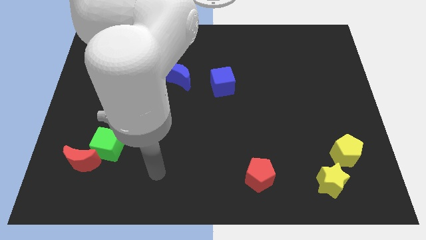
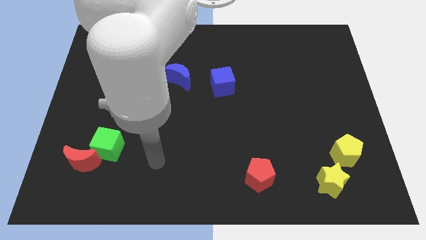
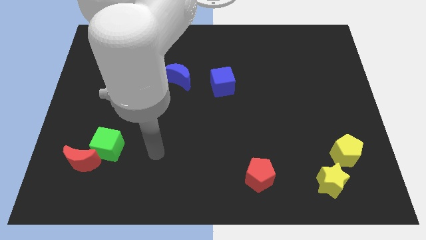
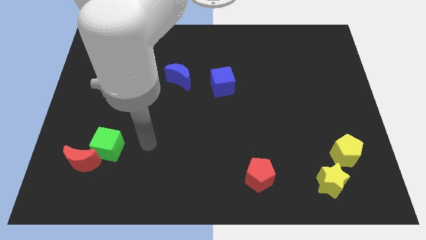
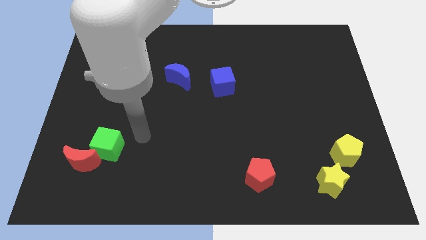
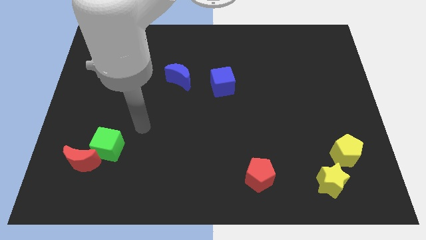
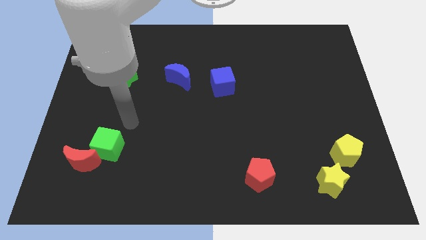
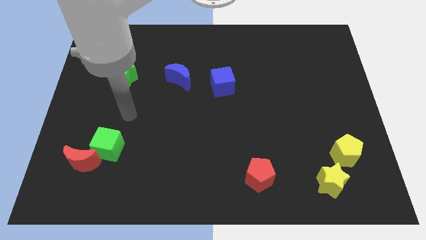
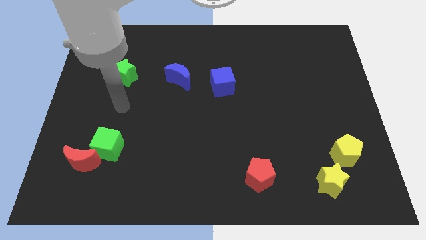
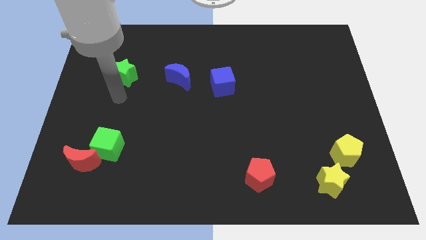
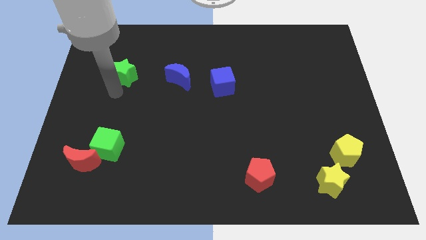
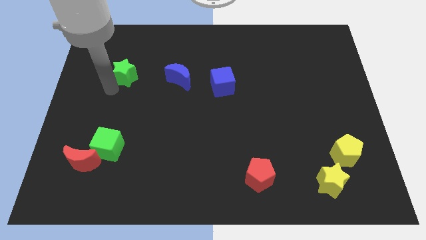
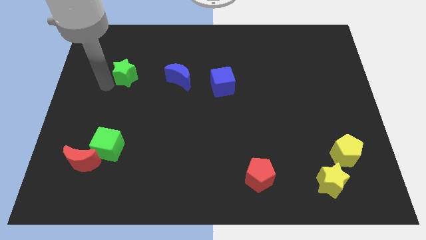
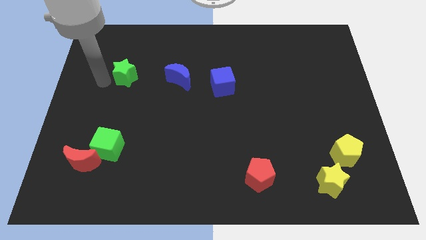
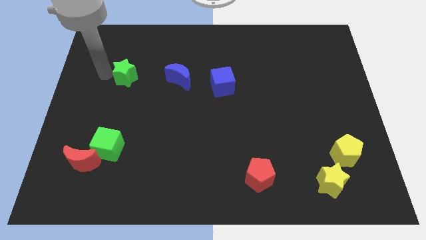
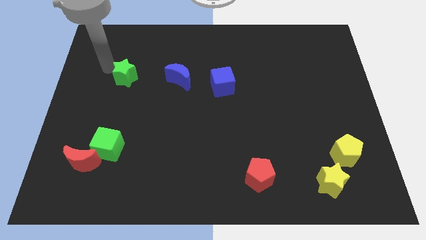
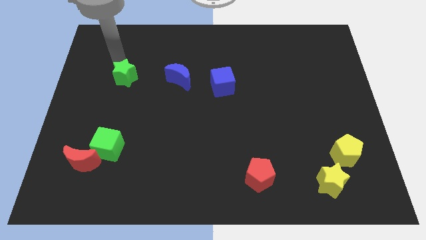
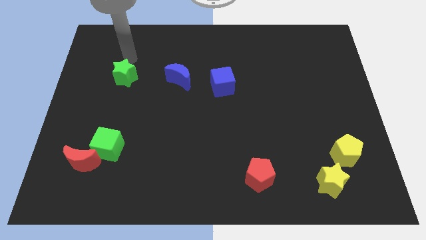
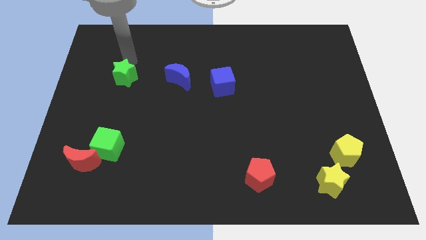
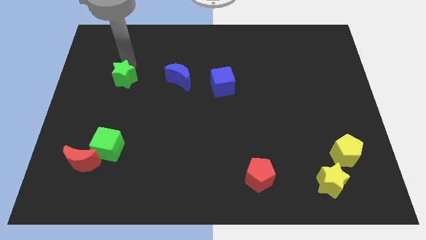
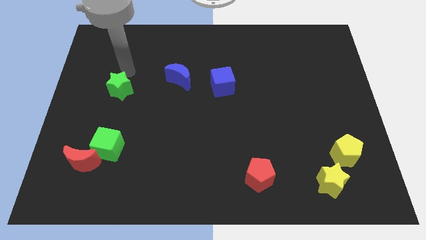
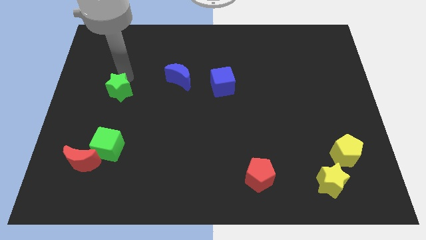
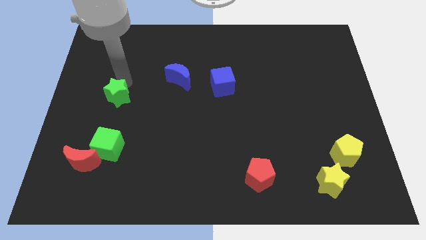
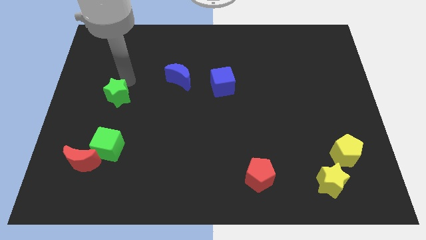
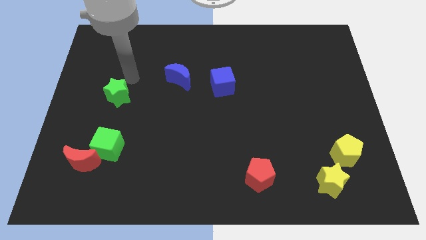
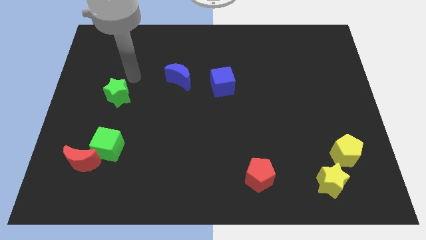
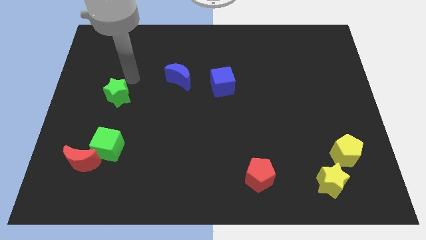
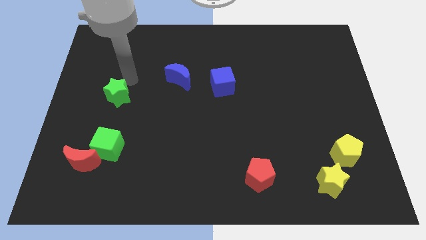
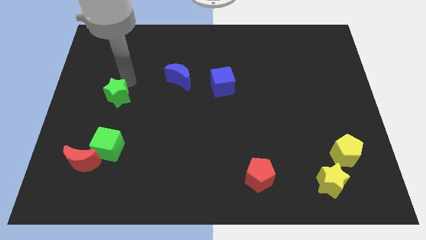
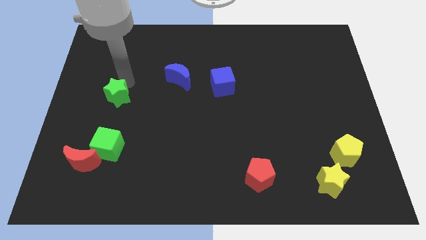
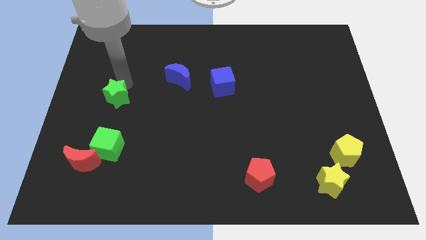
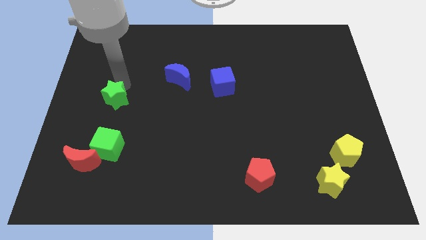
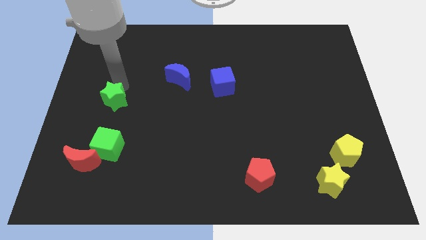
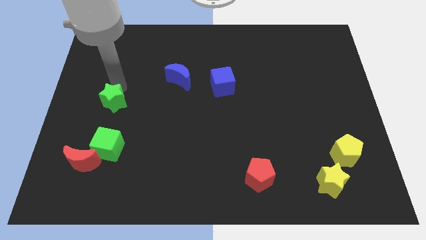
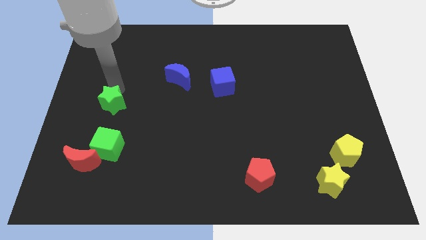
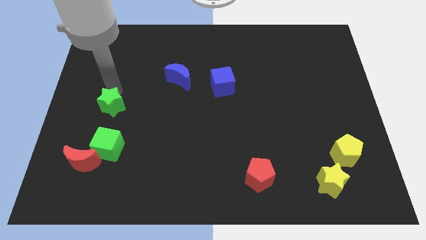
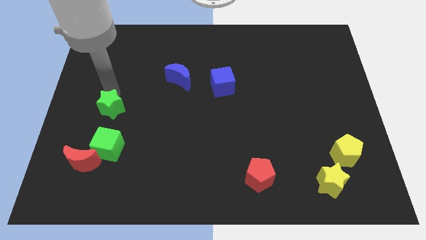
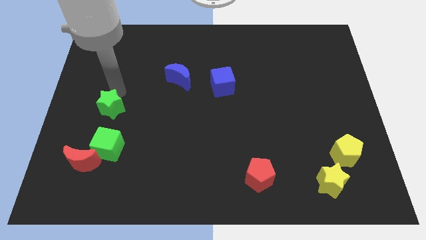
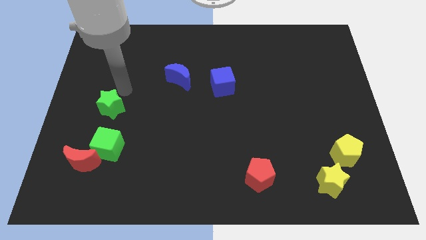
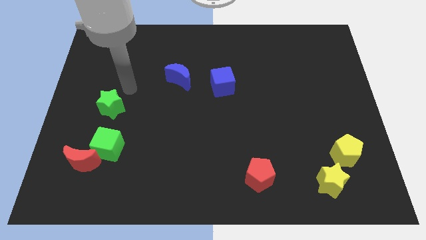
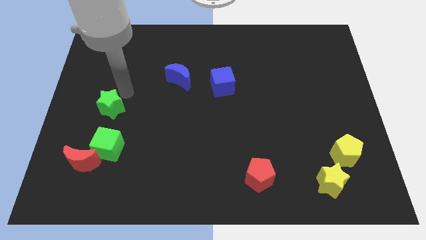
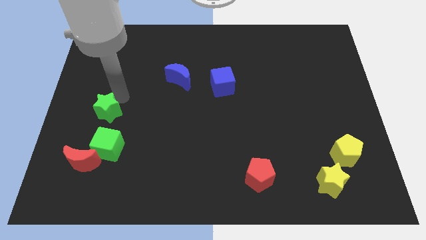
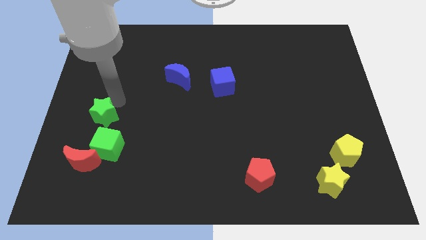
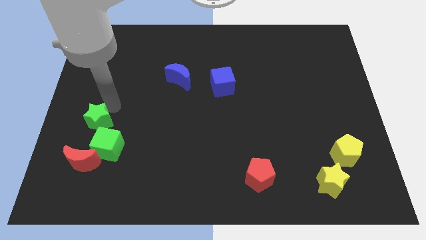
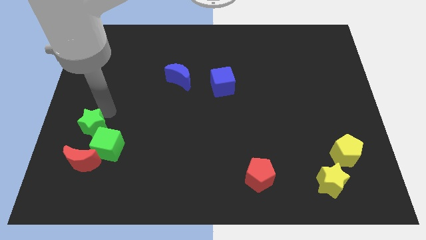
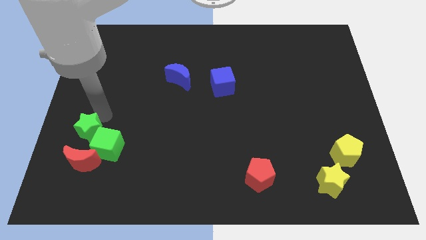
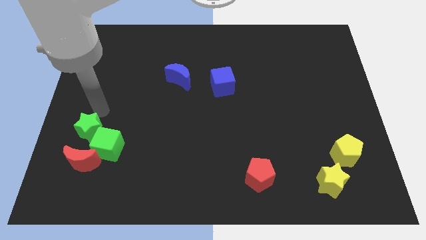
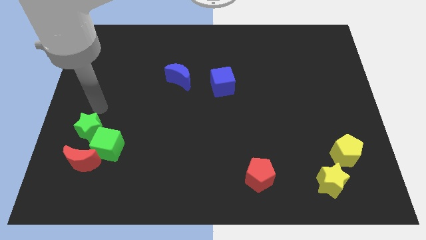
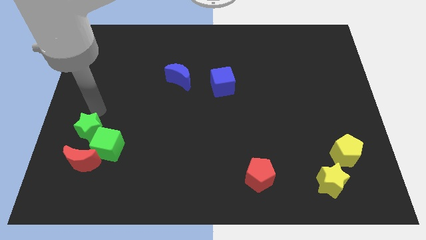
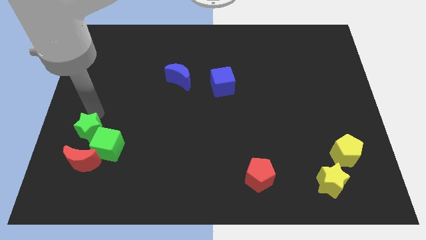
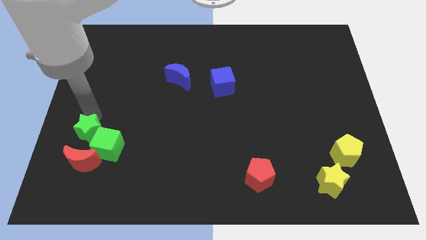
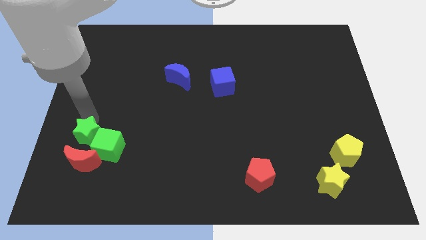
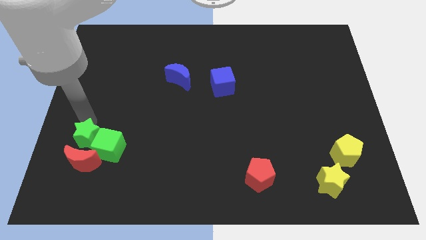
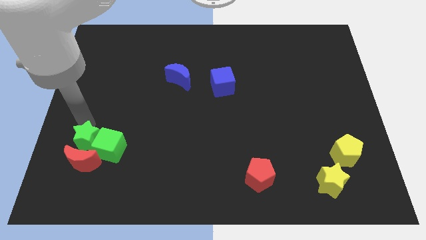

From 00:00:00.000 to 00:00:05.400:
push the green star towards the red moon

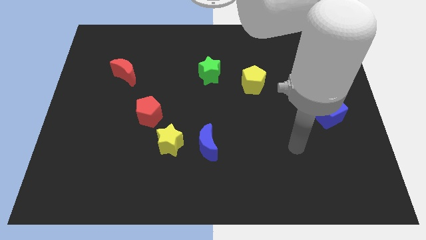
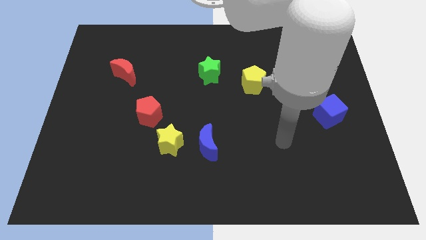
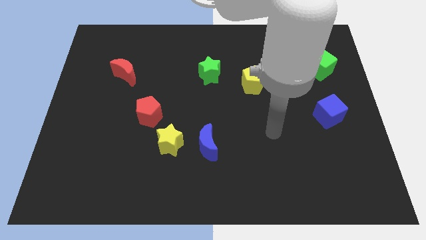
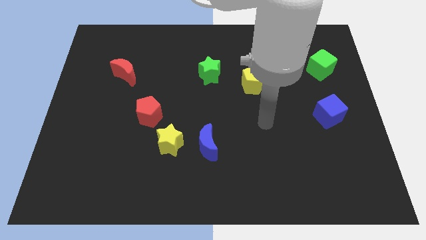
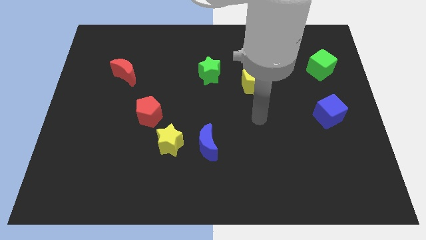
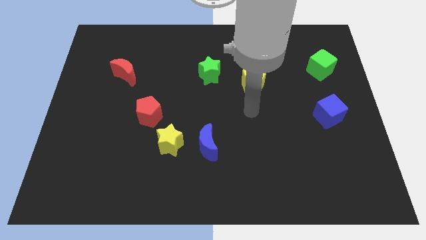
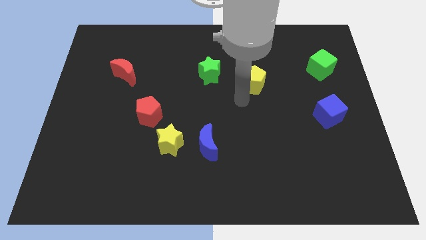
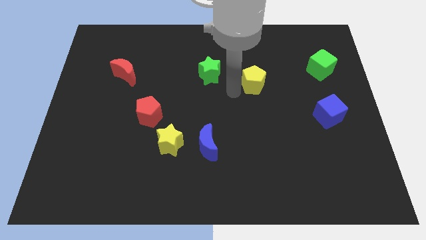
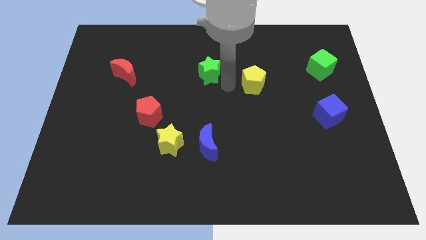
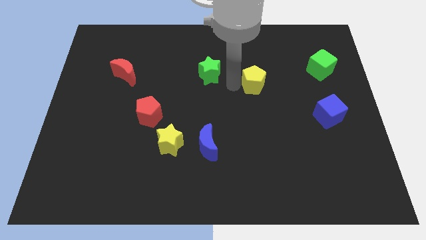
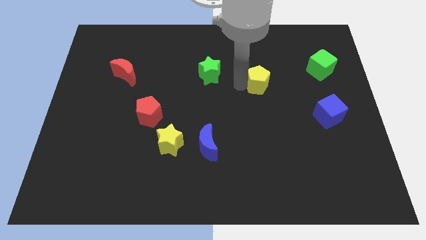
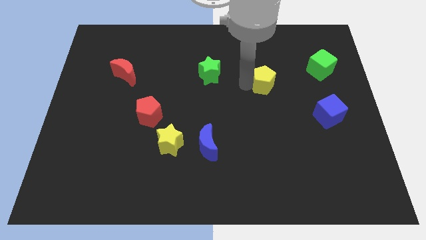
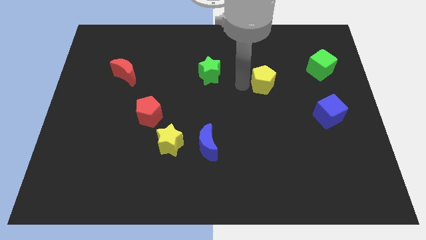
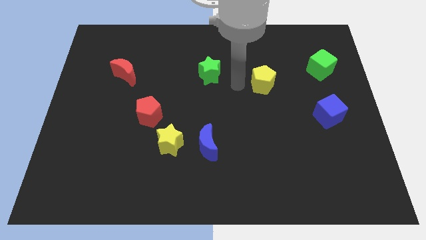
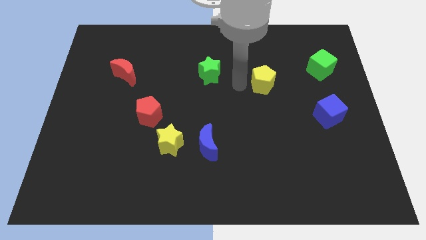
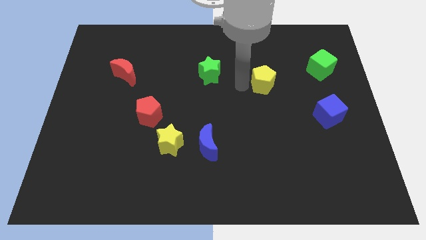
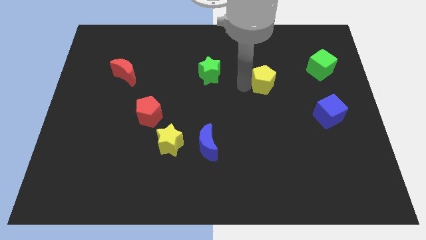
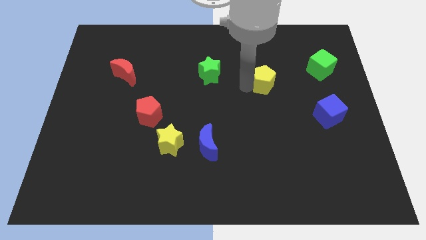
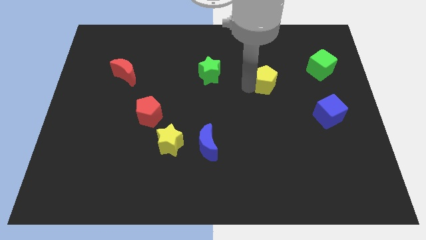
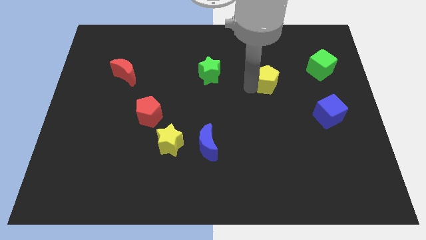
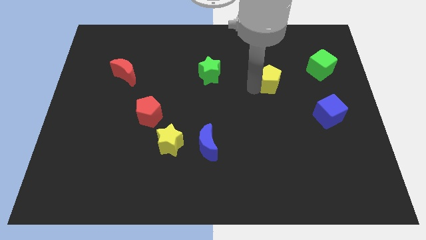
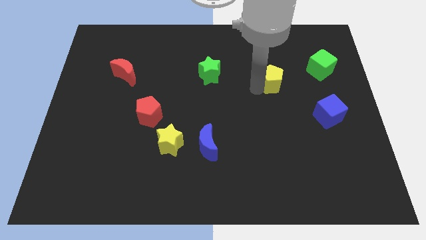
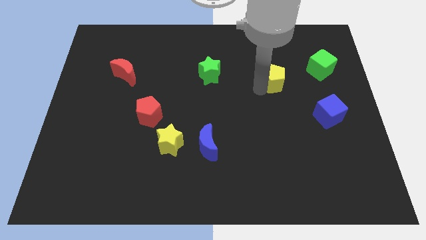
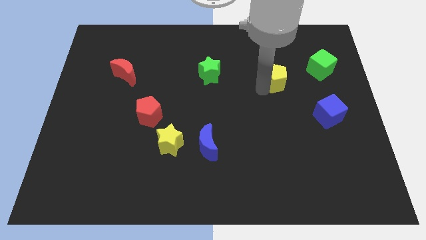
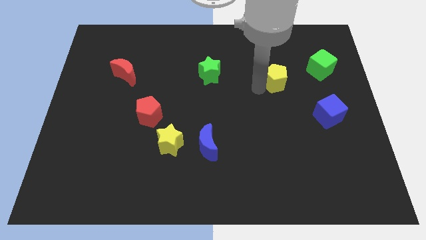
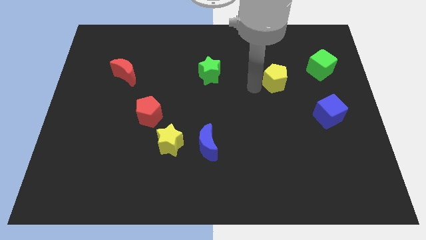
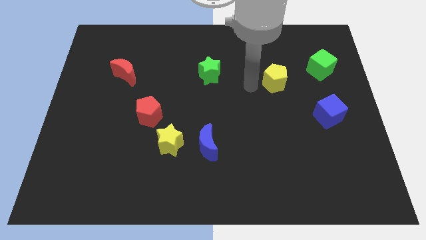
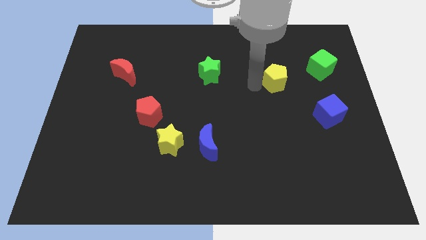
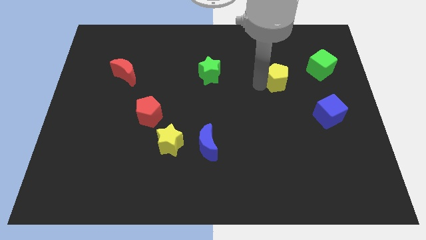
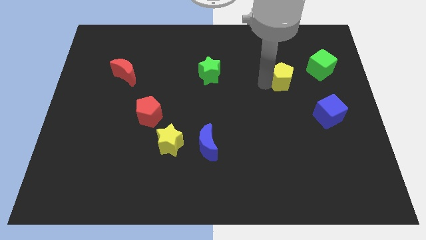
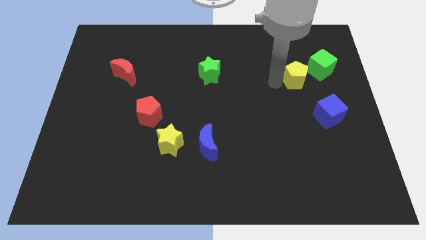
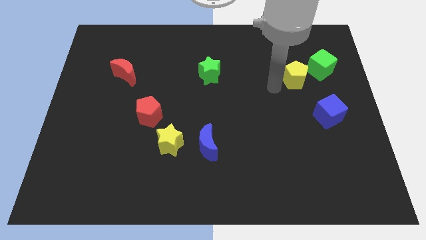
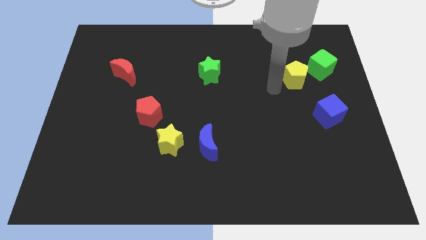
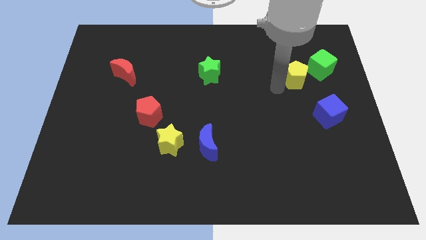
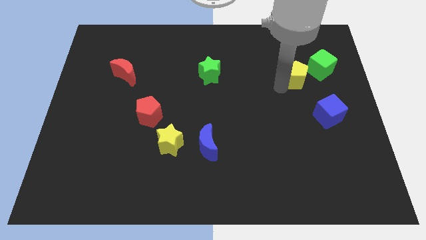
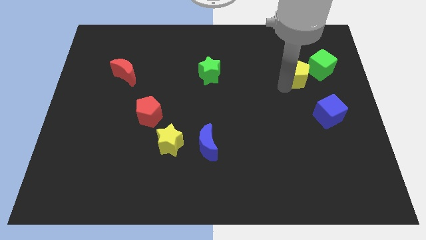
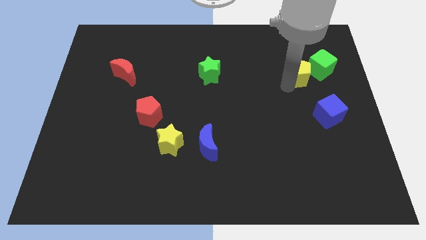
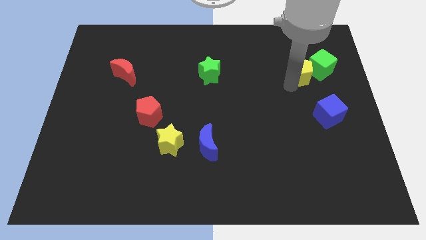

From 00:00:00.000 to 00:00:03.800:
slide the yellow pentagon close to the green cube
